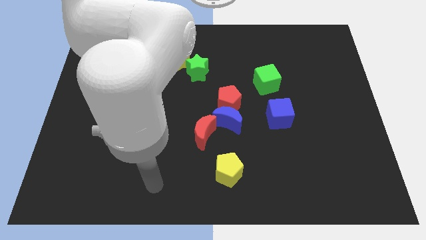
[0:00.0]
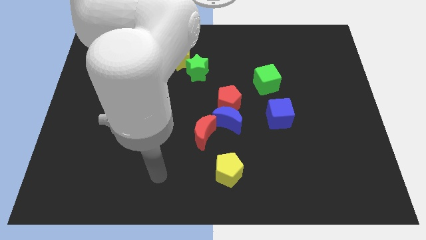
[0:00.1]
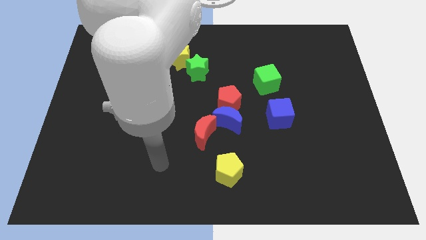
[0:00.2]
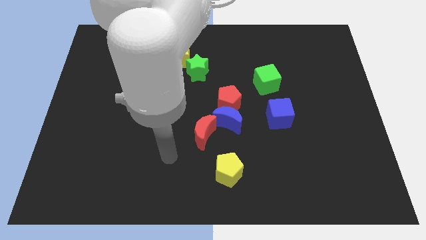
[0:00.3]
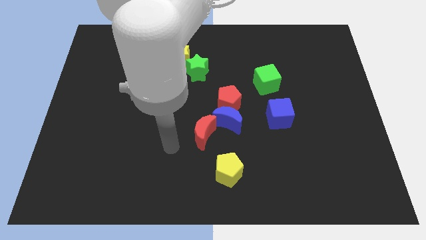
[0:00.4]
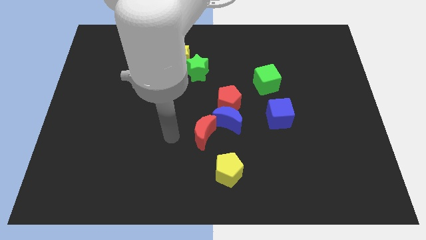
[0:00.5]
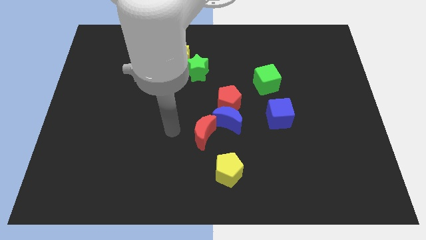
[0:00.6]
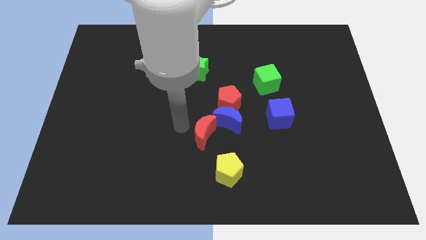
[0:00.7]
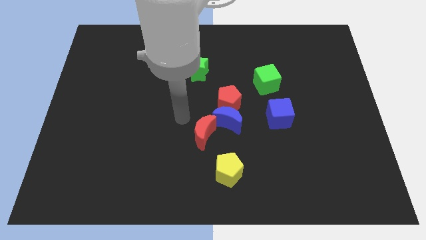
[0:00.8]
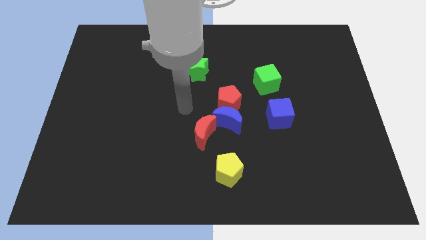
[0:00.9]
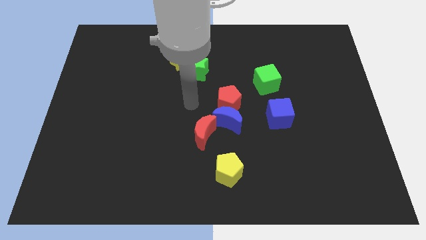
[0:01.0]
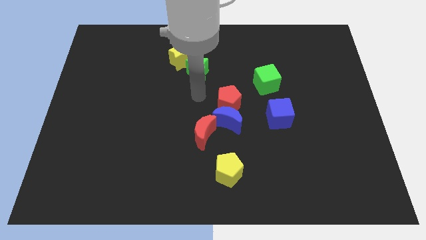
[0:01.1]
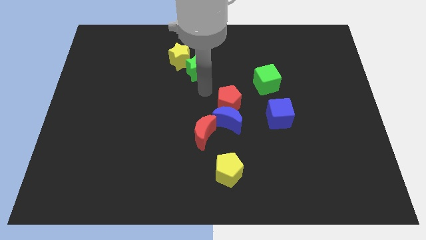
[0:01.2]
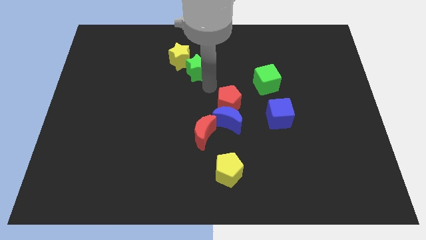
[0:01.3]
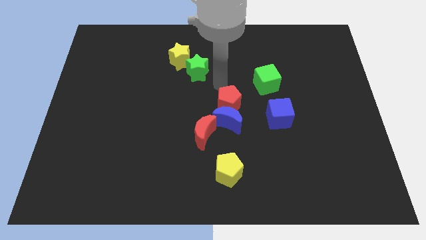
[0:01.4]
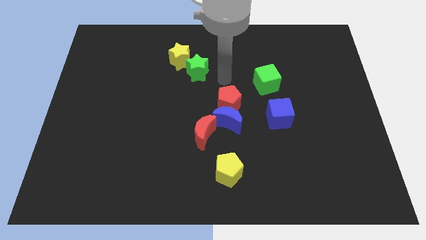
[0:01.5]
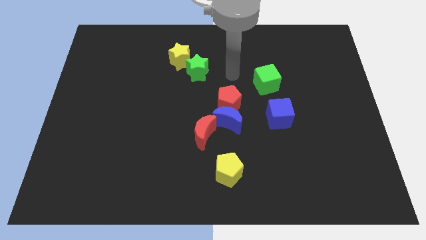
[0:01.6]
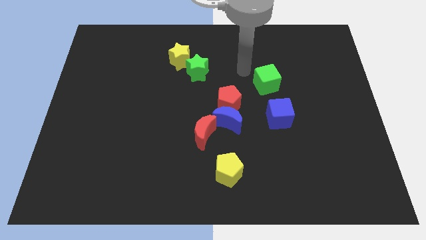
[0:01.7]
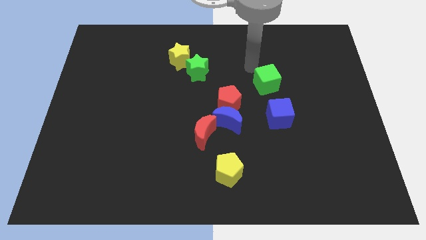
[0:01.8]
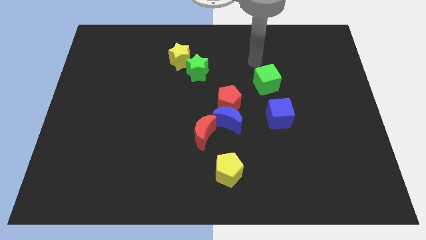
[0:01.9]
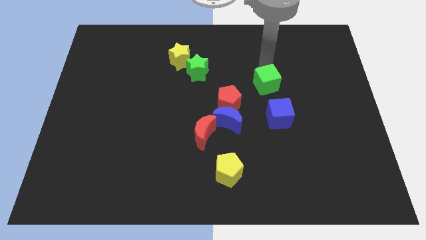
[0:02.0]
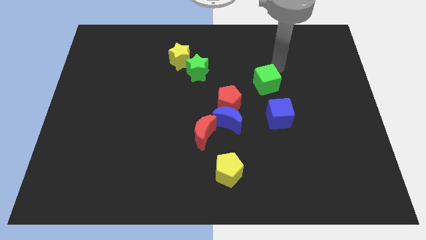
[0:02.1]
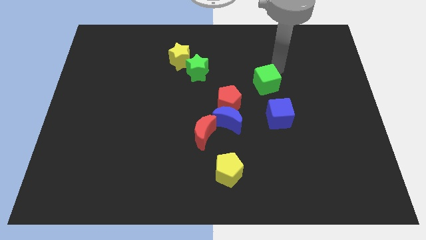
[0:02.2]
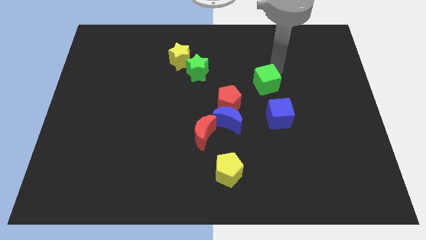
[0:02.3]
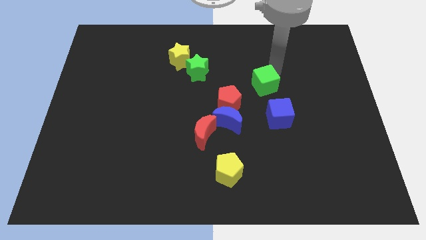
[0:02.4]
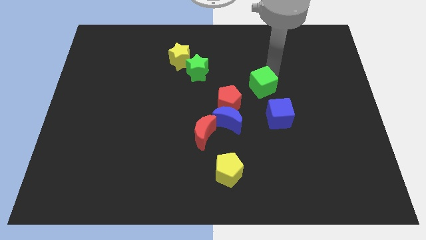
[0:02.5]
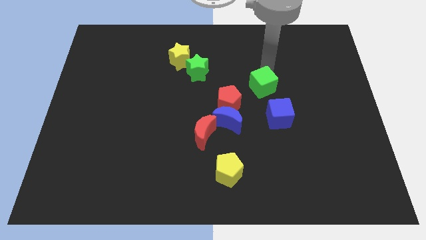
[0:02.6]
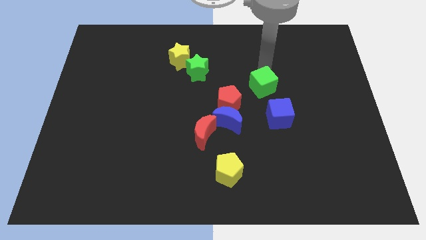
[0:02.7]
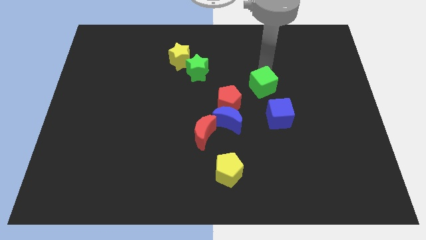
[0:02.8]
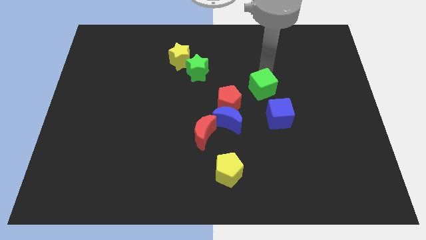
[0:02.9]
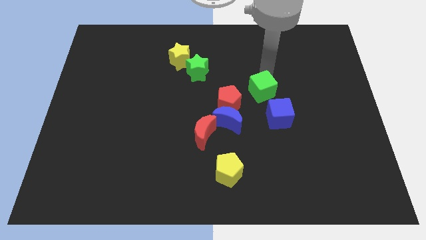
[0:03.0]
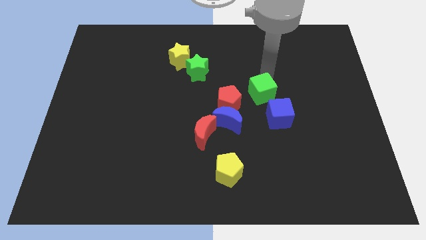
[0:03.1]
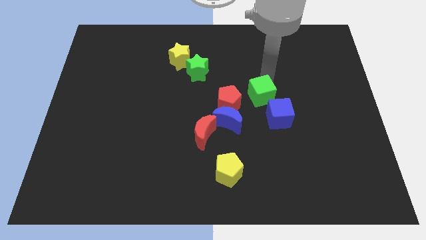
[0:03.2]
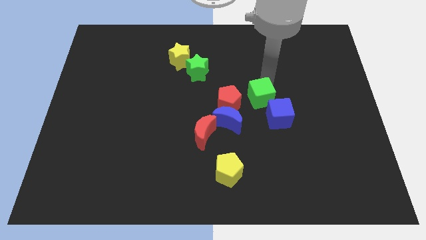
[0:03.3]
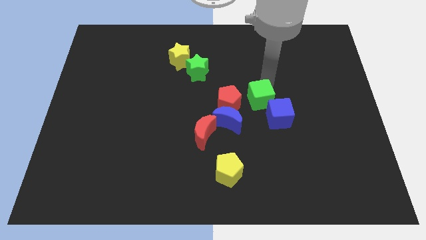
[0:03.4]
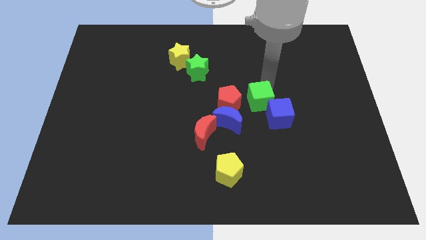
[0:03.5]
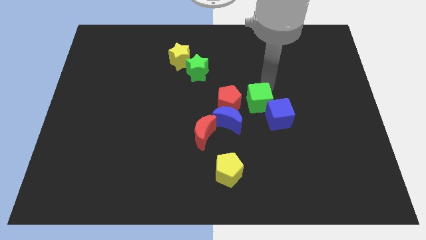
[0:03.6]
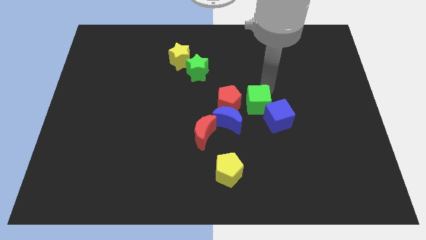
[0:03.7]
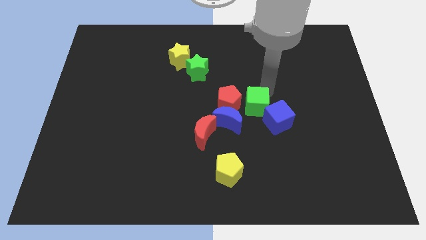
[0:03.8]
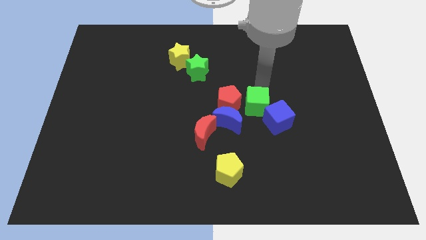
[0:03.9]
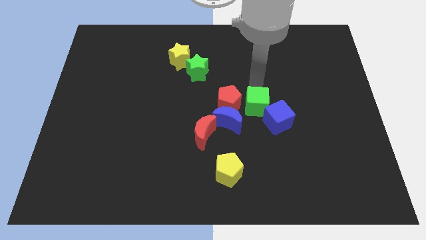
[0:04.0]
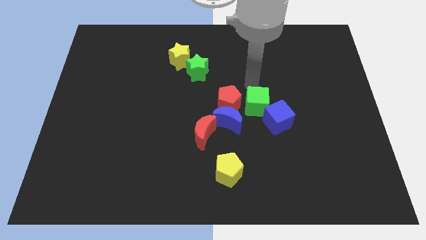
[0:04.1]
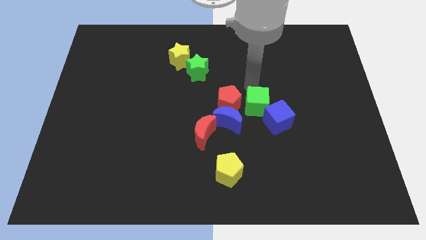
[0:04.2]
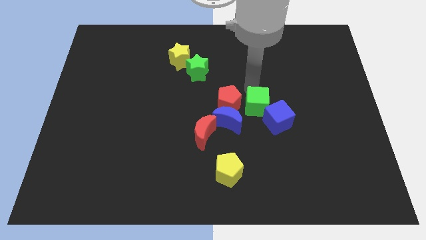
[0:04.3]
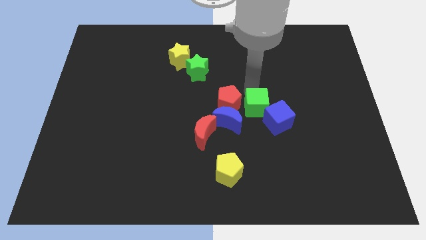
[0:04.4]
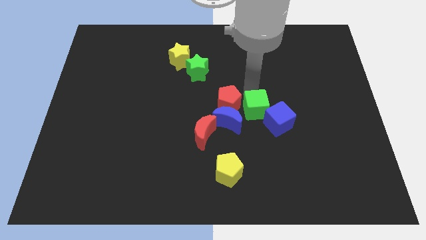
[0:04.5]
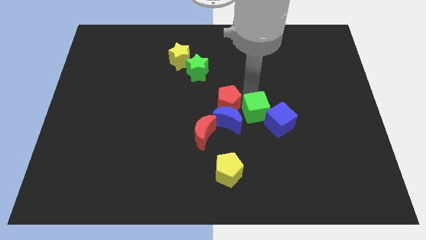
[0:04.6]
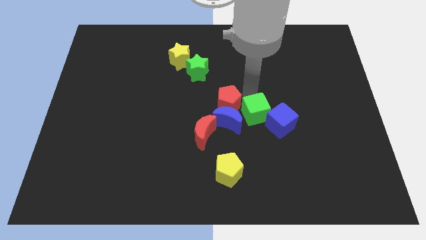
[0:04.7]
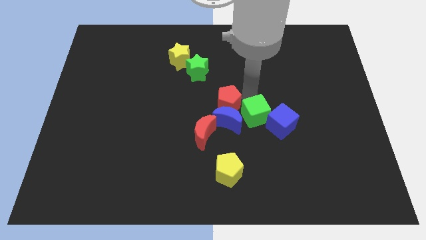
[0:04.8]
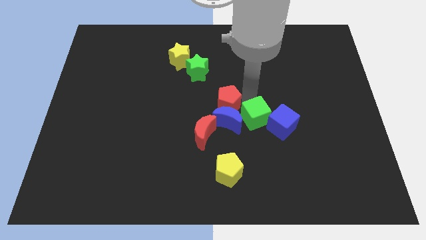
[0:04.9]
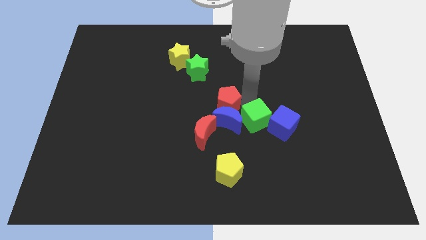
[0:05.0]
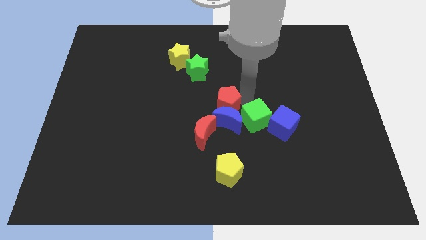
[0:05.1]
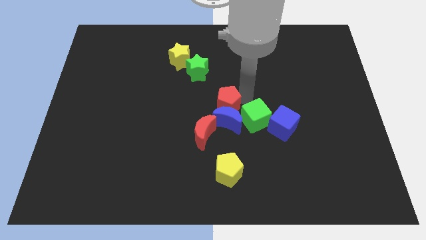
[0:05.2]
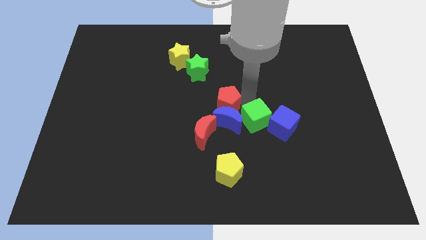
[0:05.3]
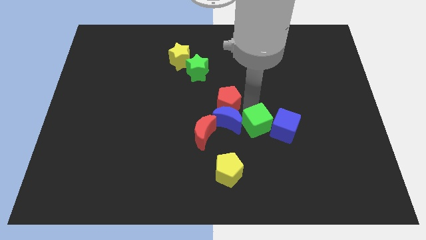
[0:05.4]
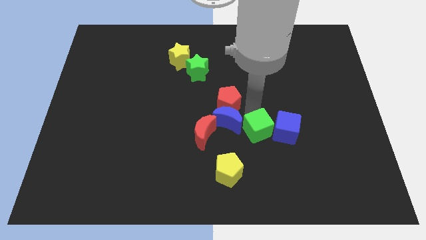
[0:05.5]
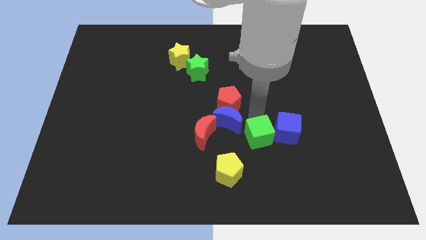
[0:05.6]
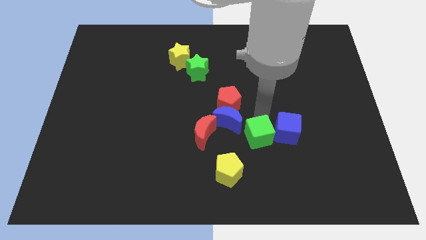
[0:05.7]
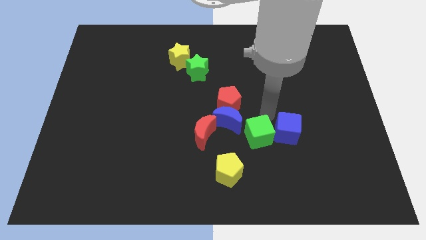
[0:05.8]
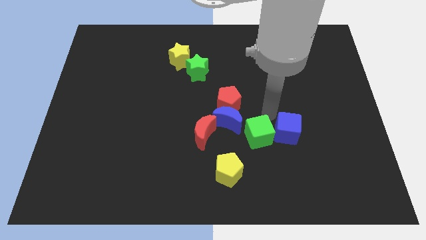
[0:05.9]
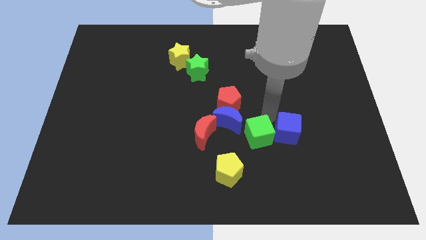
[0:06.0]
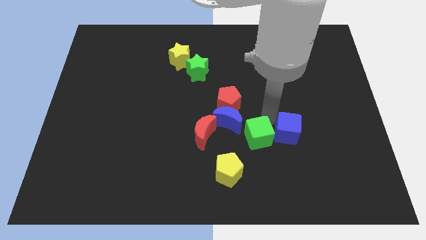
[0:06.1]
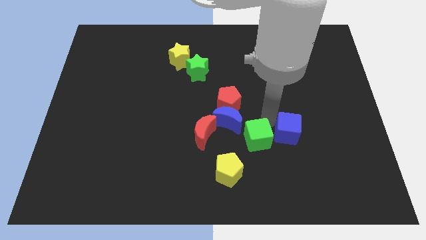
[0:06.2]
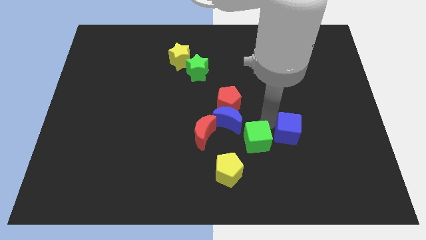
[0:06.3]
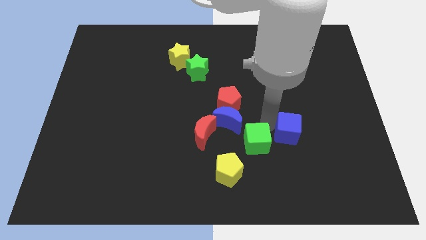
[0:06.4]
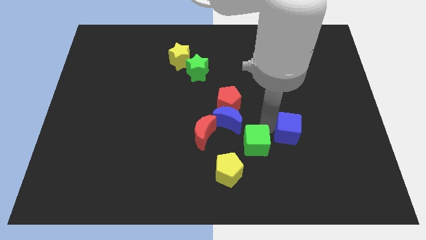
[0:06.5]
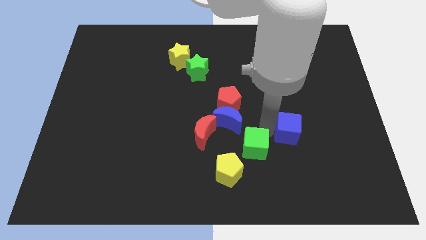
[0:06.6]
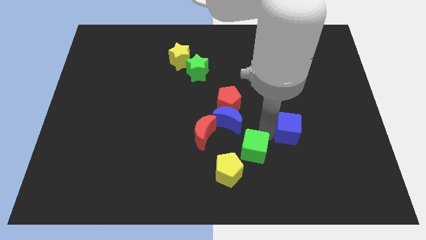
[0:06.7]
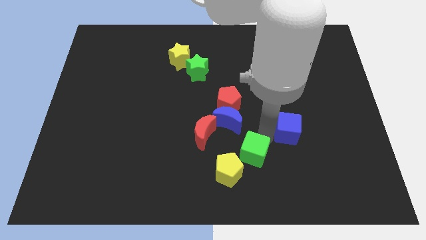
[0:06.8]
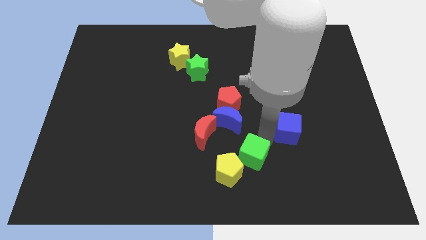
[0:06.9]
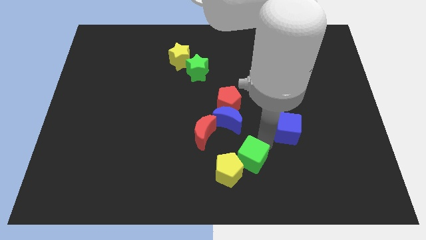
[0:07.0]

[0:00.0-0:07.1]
put the green cube to the yellow pentagon

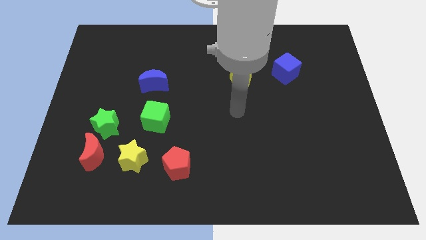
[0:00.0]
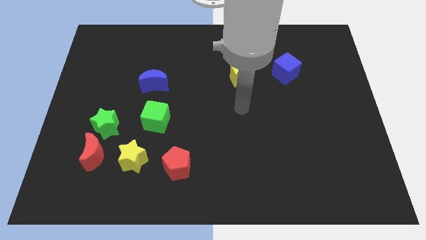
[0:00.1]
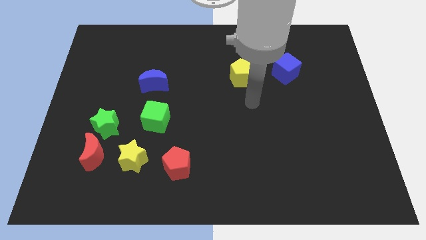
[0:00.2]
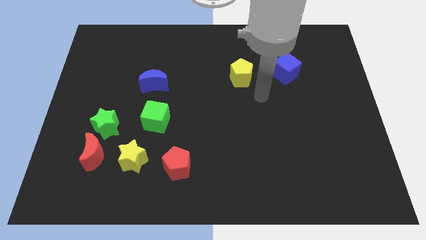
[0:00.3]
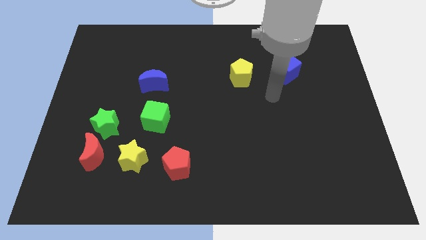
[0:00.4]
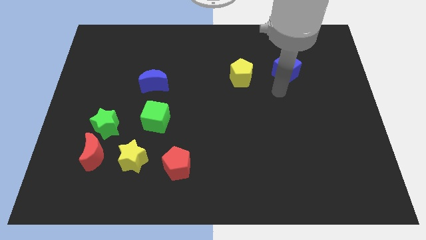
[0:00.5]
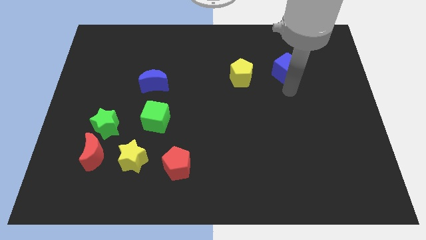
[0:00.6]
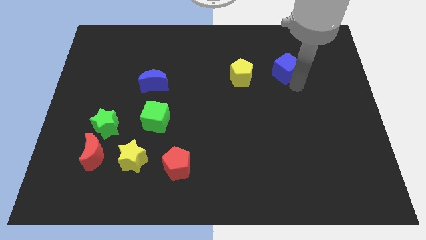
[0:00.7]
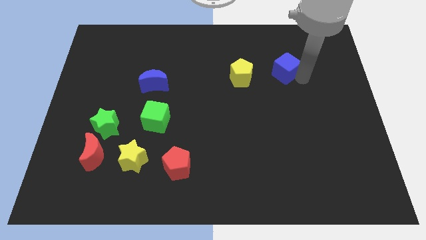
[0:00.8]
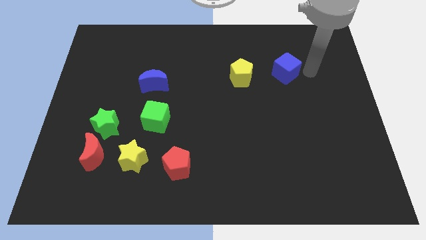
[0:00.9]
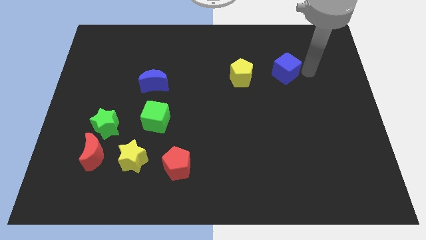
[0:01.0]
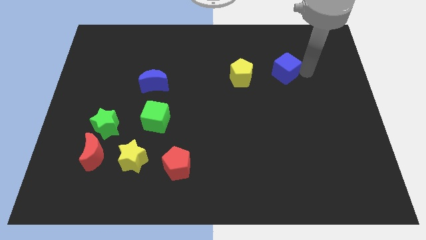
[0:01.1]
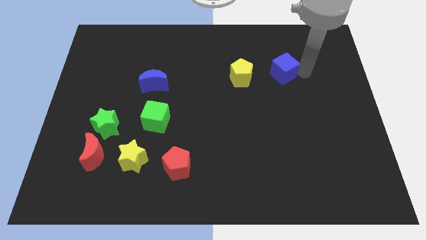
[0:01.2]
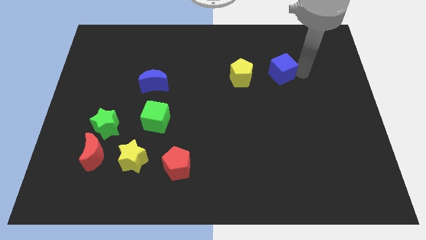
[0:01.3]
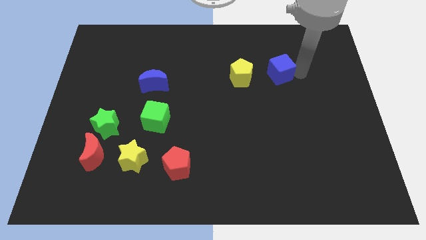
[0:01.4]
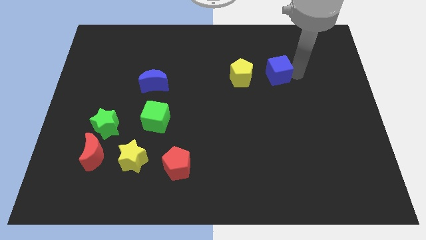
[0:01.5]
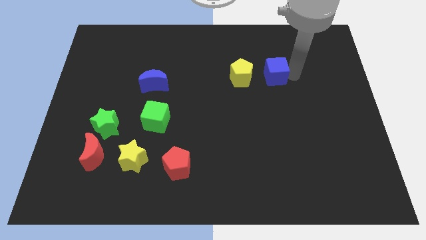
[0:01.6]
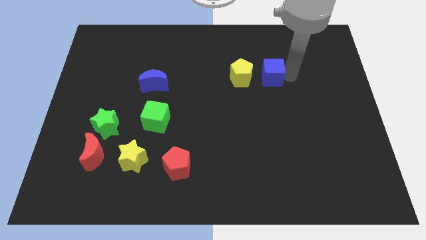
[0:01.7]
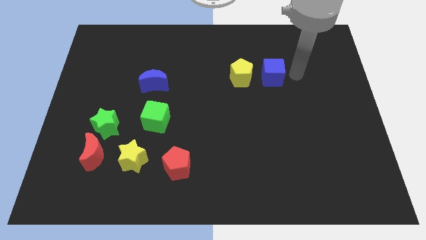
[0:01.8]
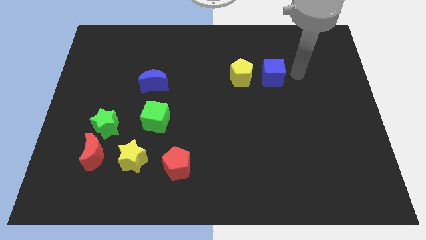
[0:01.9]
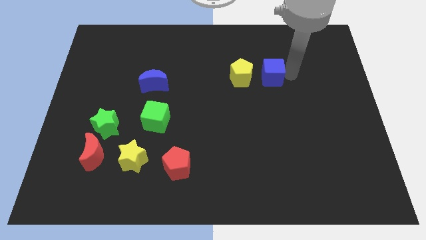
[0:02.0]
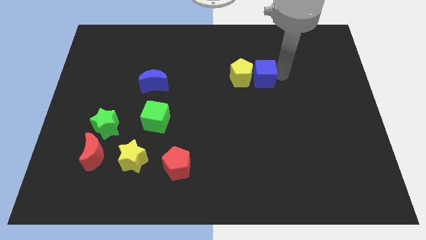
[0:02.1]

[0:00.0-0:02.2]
slide the blue cube next to the yellow pentagon
